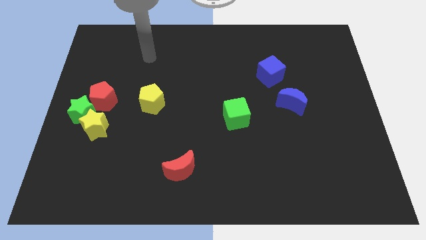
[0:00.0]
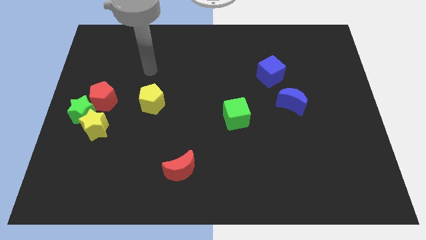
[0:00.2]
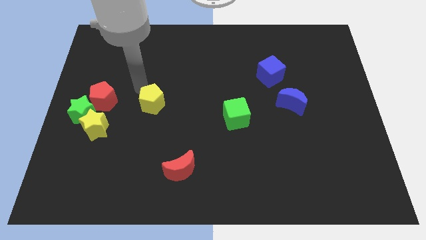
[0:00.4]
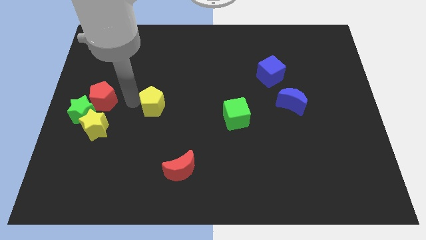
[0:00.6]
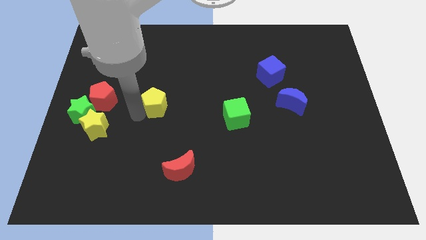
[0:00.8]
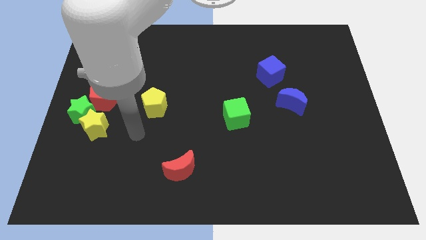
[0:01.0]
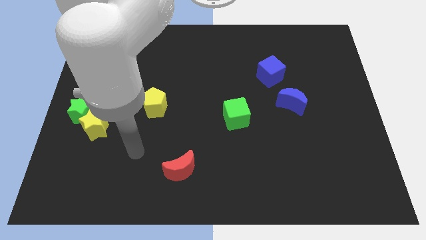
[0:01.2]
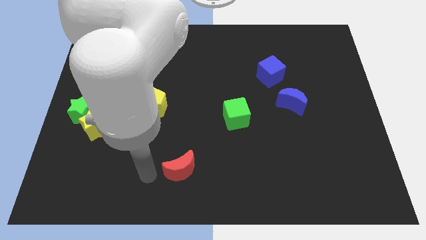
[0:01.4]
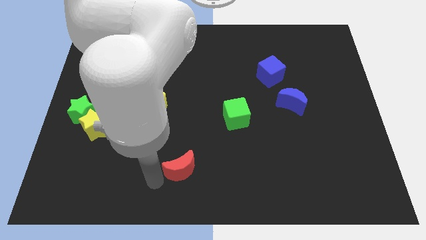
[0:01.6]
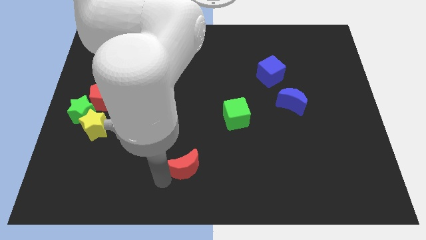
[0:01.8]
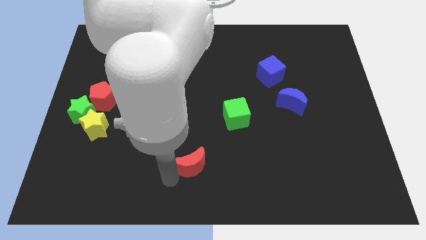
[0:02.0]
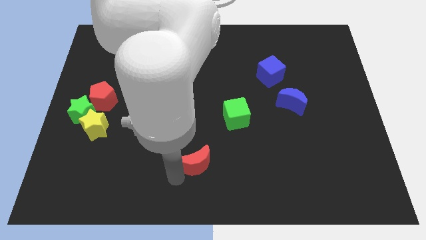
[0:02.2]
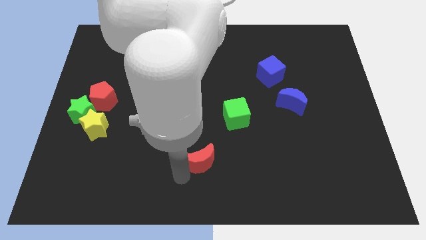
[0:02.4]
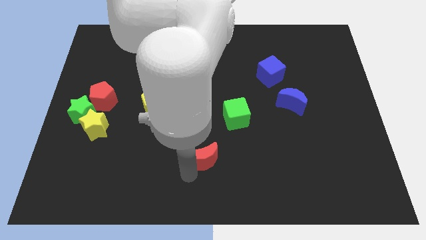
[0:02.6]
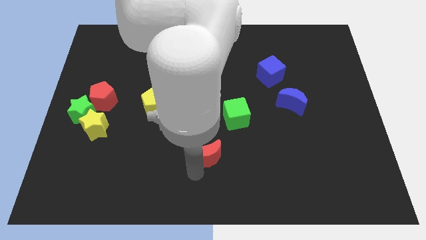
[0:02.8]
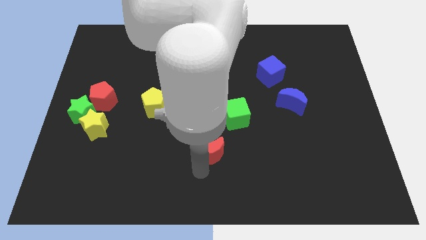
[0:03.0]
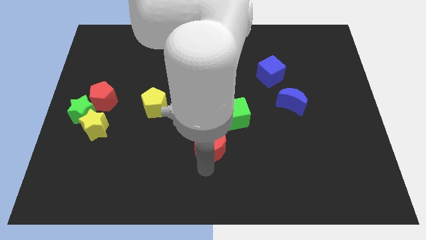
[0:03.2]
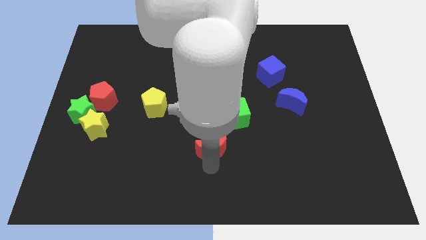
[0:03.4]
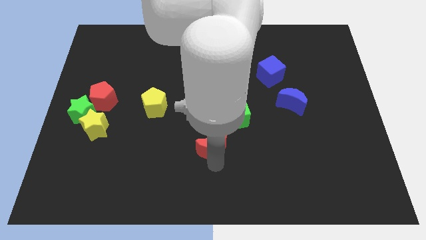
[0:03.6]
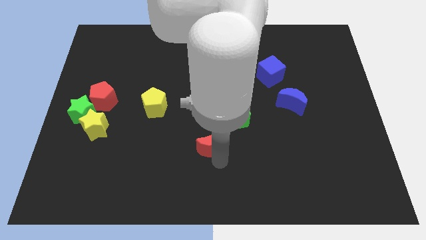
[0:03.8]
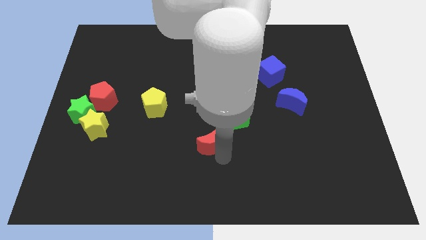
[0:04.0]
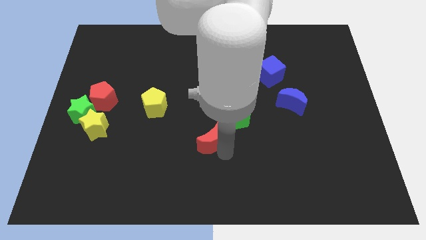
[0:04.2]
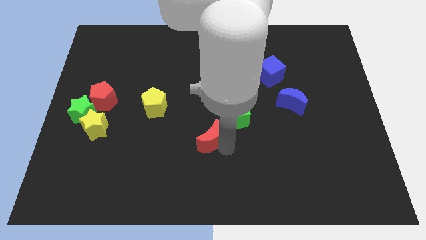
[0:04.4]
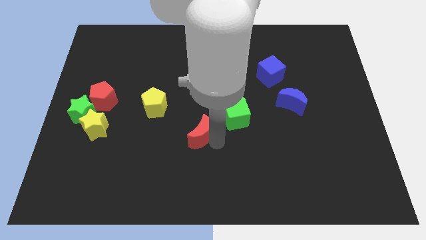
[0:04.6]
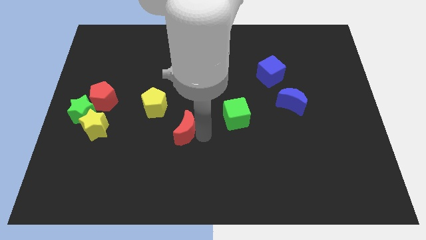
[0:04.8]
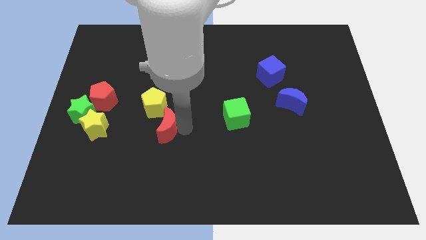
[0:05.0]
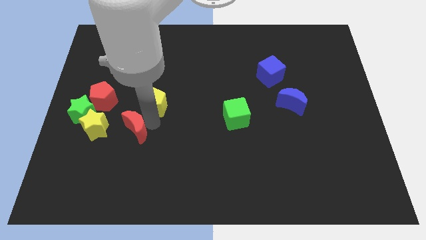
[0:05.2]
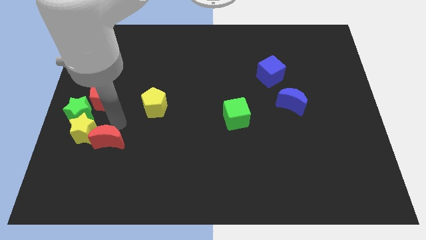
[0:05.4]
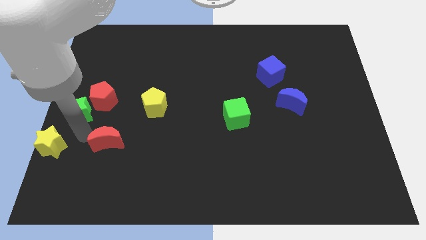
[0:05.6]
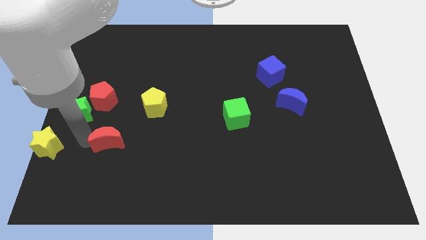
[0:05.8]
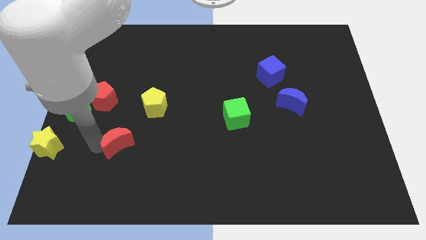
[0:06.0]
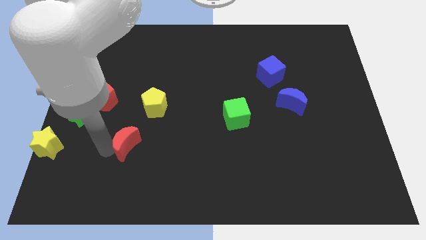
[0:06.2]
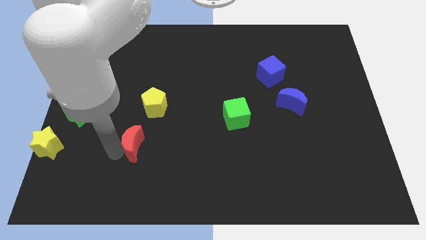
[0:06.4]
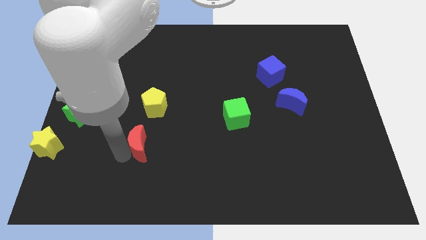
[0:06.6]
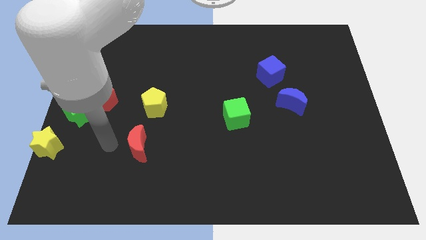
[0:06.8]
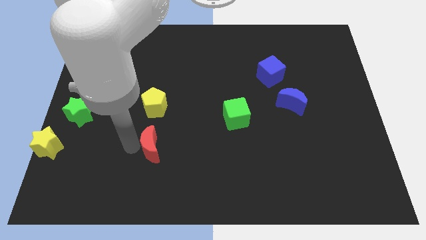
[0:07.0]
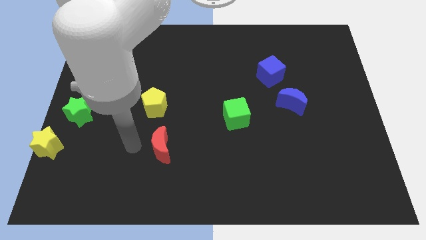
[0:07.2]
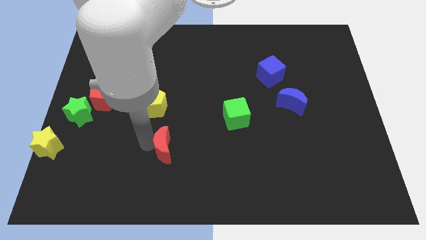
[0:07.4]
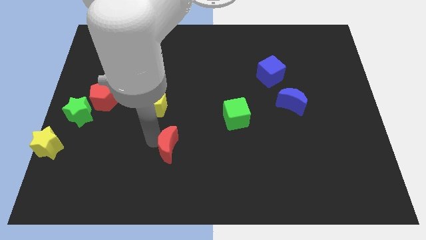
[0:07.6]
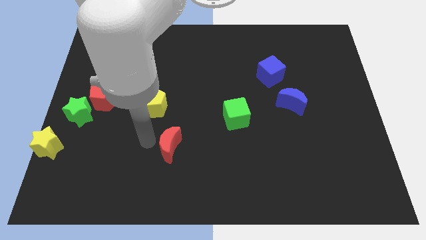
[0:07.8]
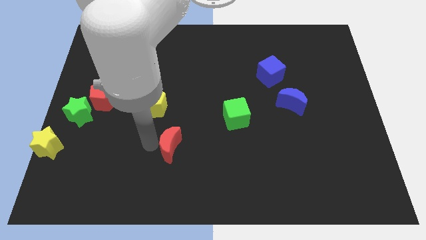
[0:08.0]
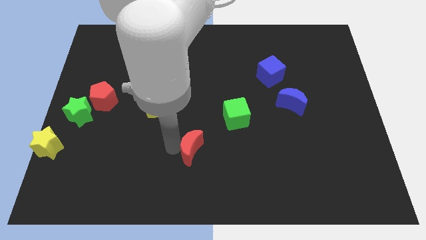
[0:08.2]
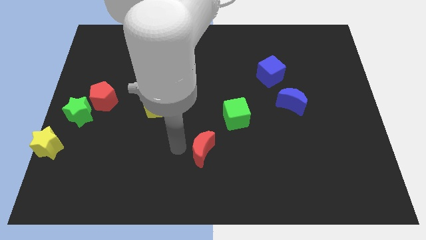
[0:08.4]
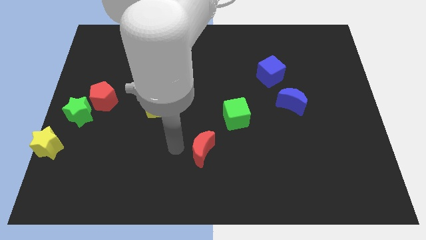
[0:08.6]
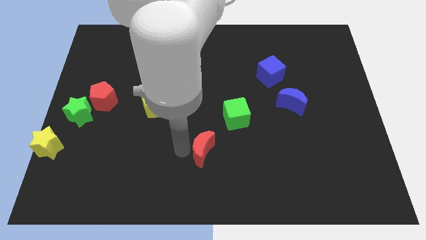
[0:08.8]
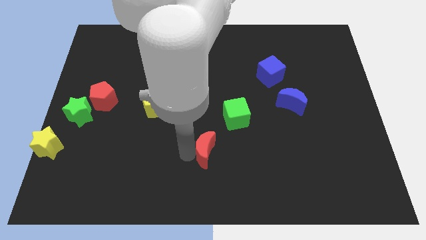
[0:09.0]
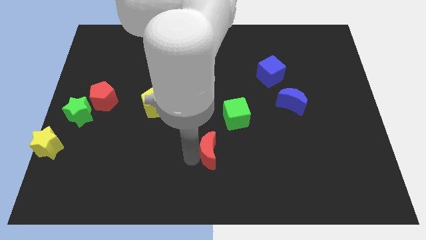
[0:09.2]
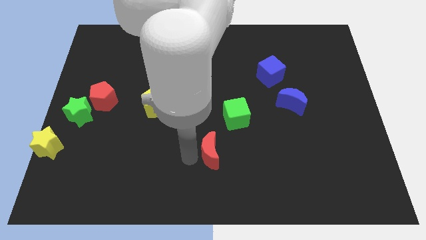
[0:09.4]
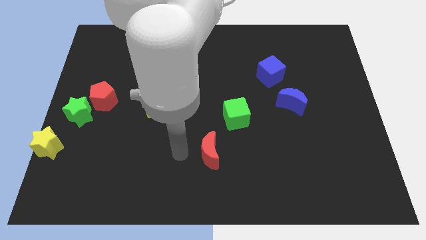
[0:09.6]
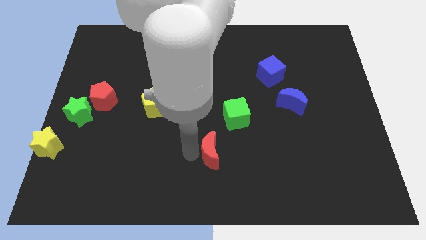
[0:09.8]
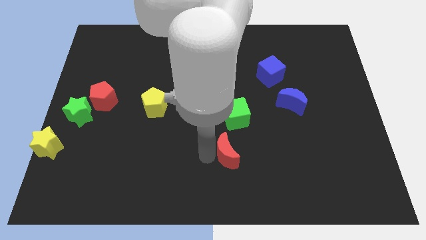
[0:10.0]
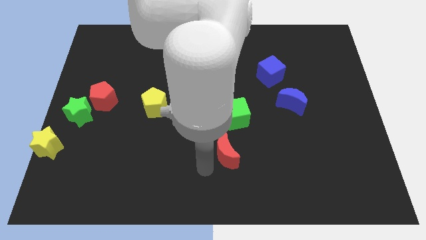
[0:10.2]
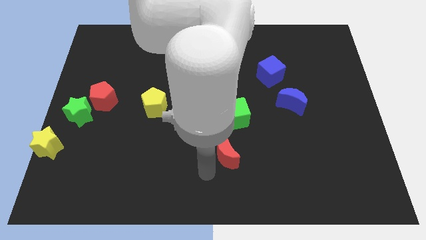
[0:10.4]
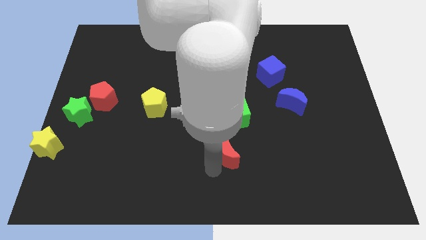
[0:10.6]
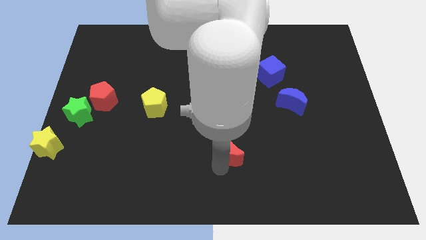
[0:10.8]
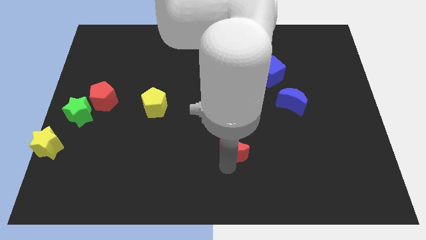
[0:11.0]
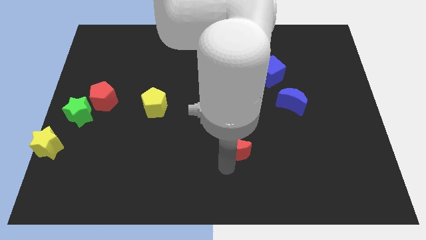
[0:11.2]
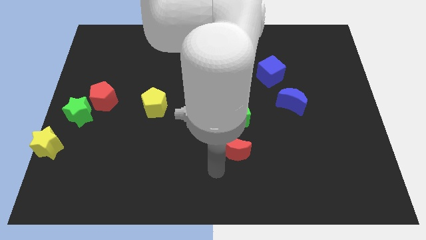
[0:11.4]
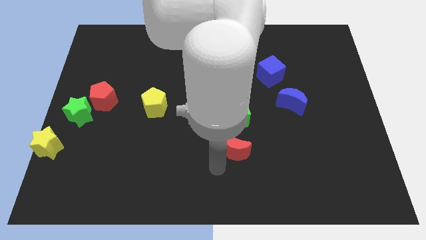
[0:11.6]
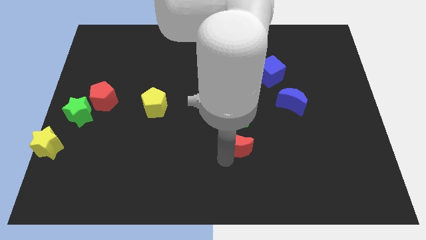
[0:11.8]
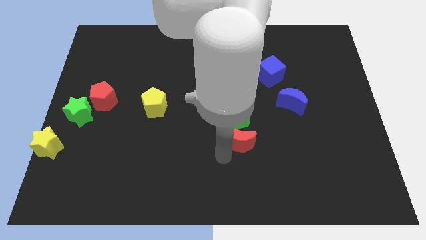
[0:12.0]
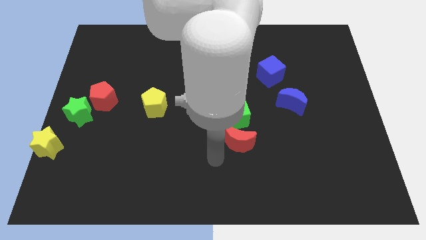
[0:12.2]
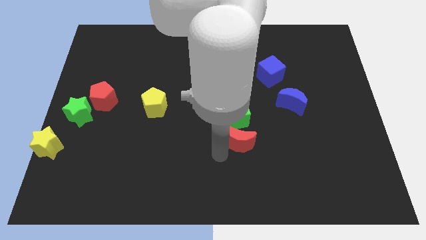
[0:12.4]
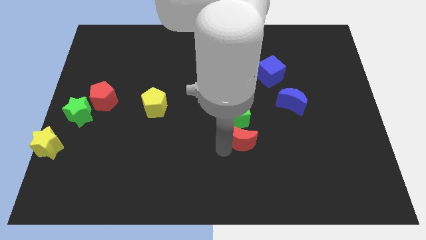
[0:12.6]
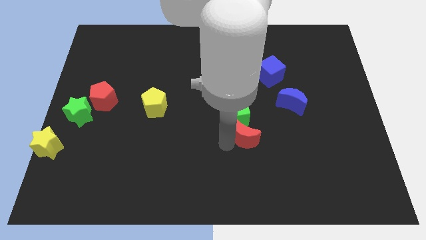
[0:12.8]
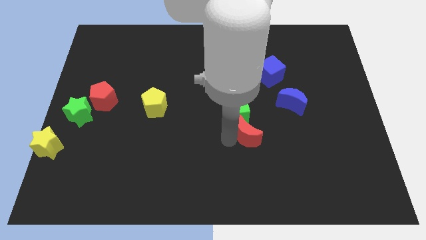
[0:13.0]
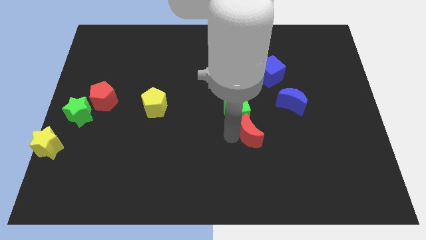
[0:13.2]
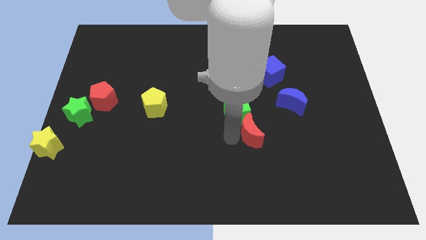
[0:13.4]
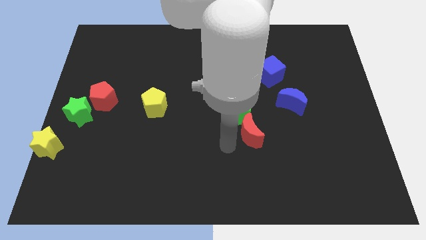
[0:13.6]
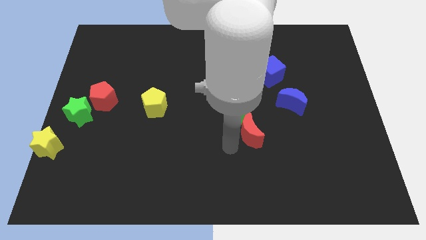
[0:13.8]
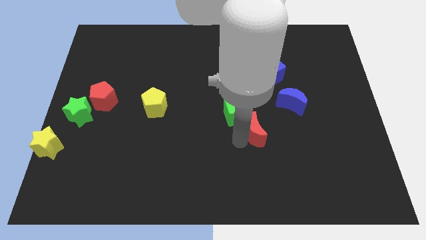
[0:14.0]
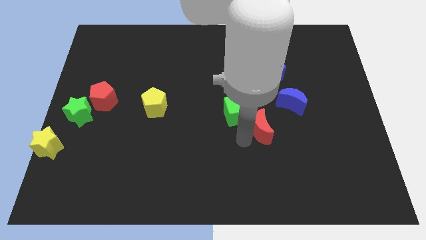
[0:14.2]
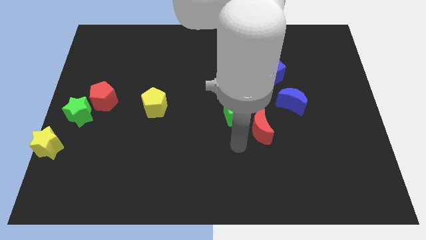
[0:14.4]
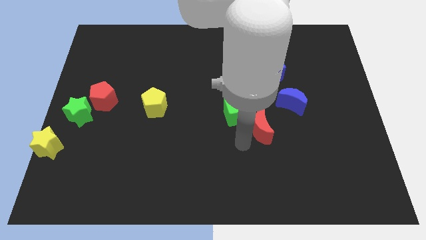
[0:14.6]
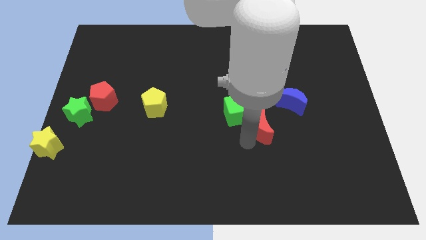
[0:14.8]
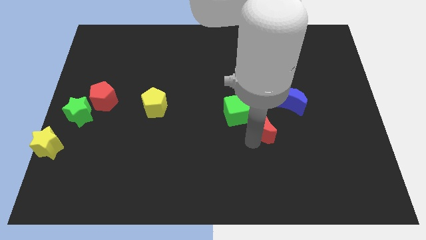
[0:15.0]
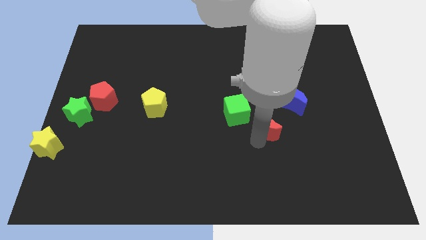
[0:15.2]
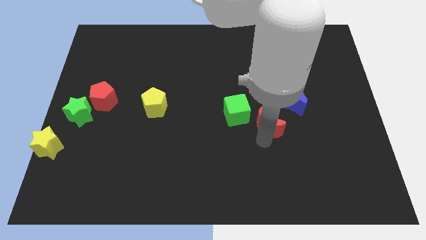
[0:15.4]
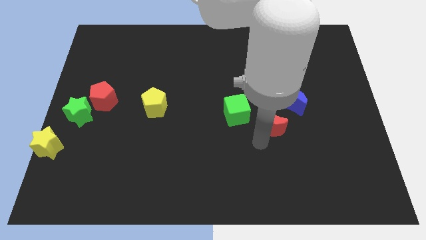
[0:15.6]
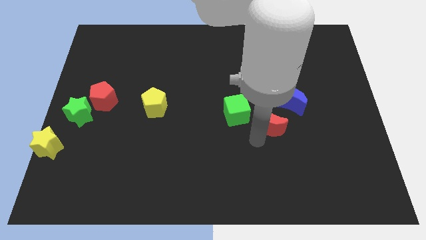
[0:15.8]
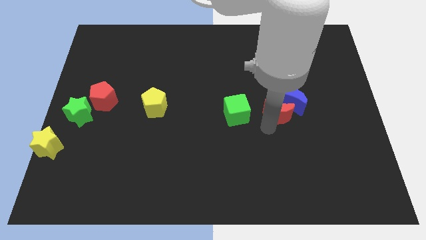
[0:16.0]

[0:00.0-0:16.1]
move the red moon close to the blue moon
